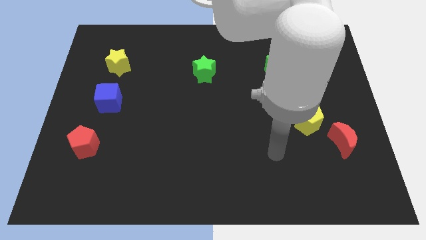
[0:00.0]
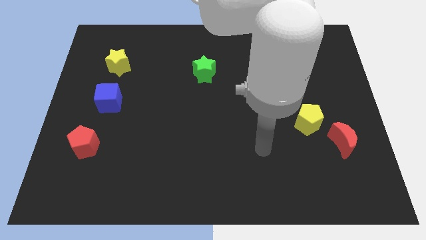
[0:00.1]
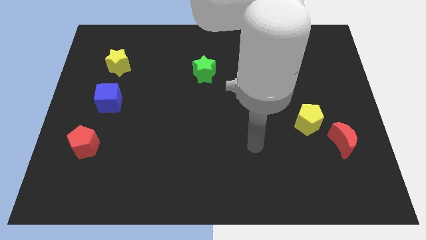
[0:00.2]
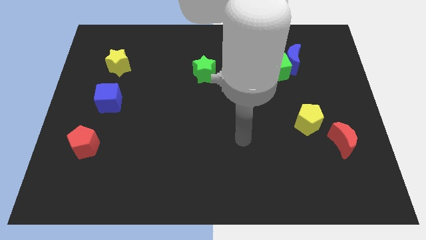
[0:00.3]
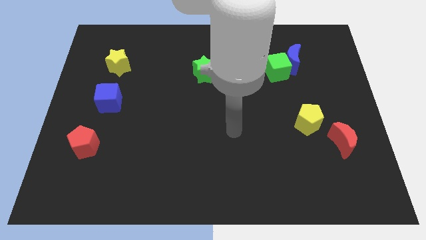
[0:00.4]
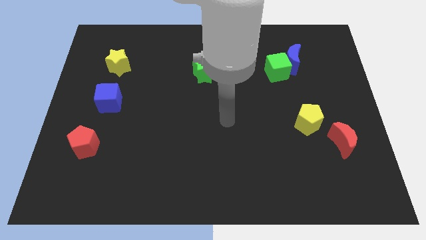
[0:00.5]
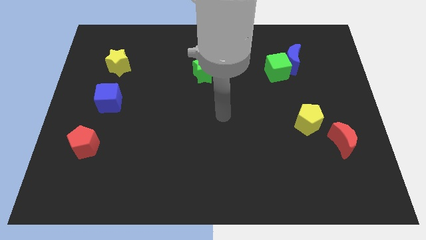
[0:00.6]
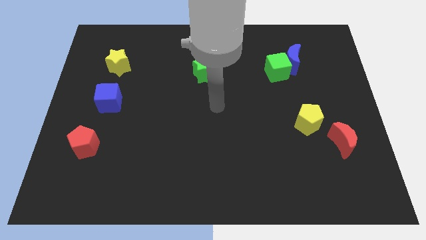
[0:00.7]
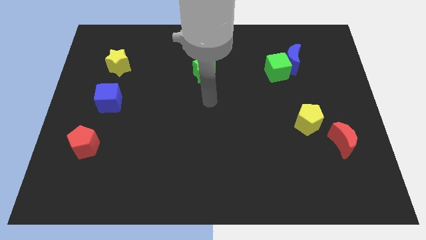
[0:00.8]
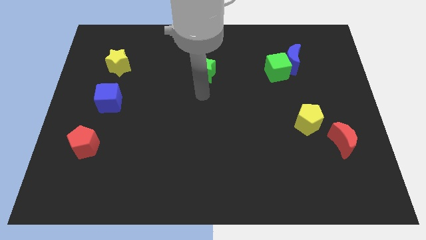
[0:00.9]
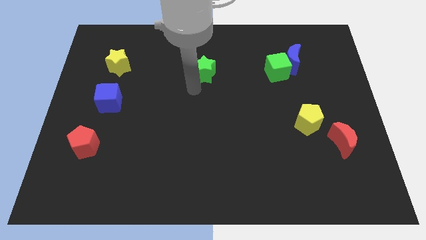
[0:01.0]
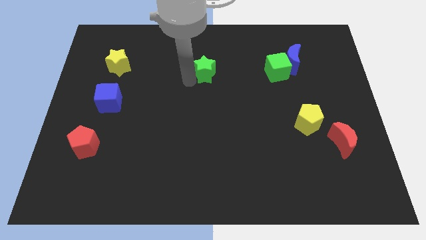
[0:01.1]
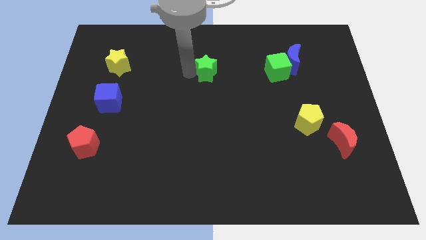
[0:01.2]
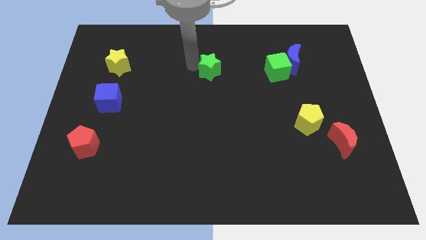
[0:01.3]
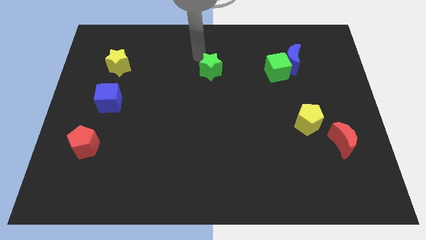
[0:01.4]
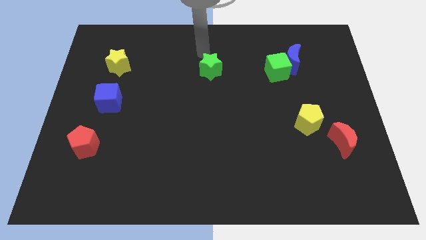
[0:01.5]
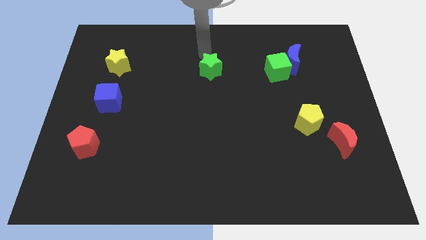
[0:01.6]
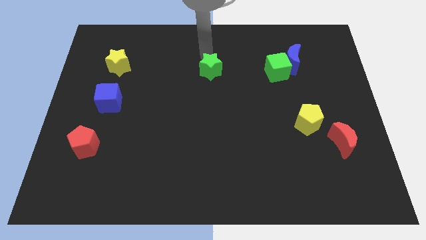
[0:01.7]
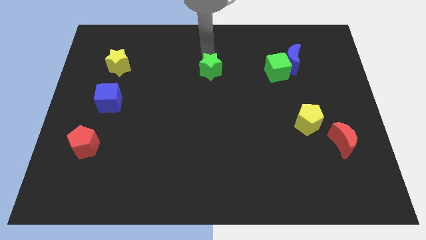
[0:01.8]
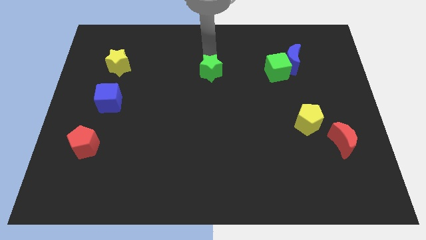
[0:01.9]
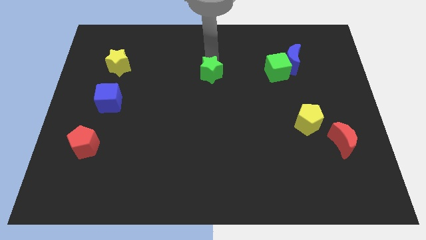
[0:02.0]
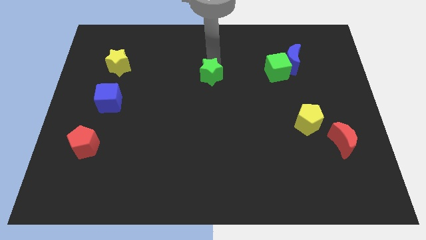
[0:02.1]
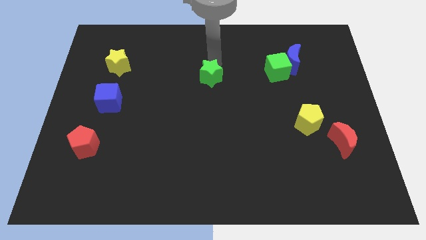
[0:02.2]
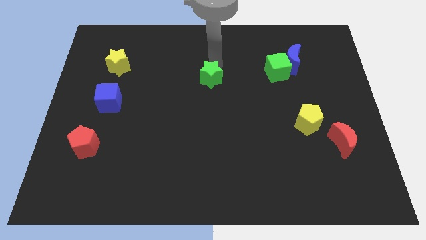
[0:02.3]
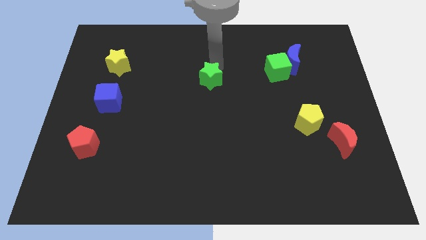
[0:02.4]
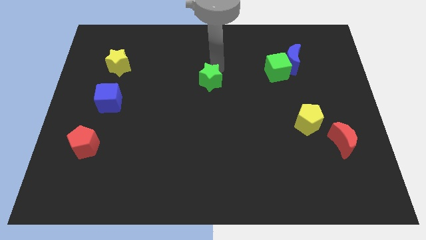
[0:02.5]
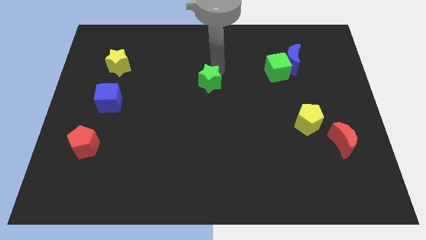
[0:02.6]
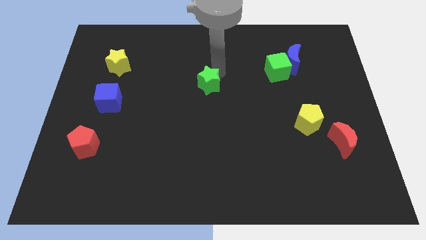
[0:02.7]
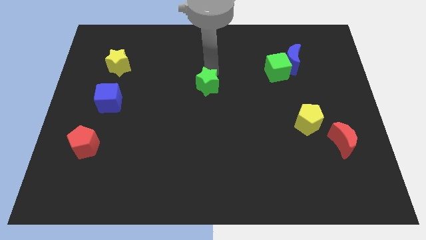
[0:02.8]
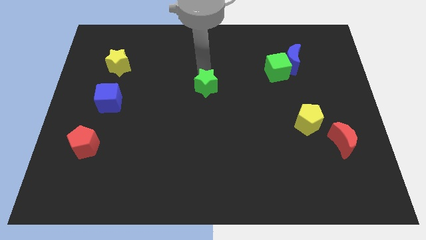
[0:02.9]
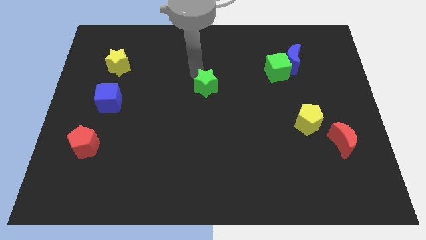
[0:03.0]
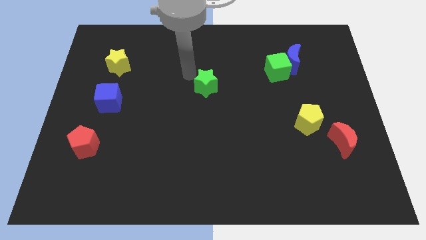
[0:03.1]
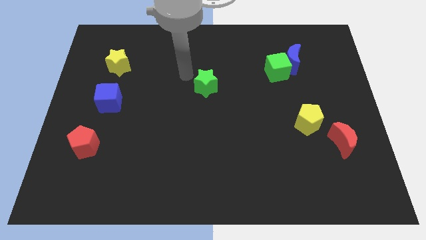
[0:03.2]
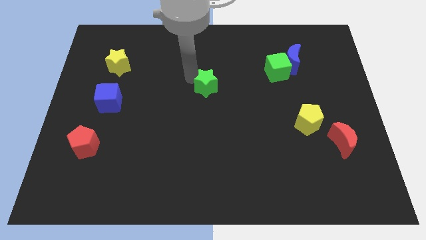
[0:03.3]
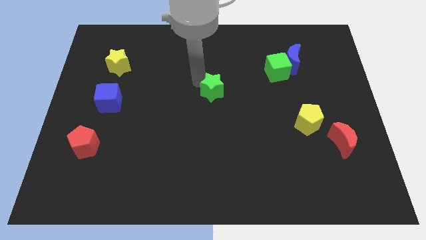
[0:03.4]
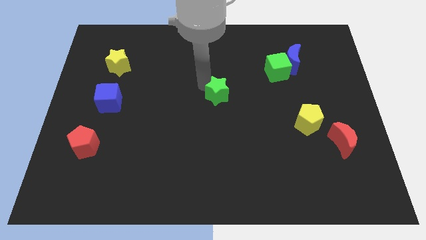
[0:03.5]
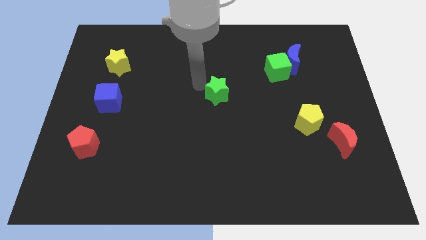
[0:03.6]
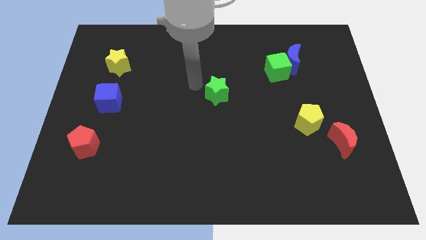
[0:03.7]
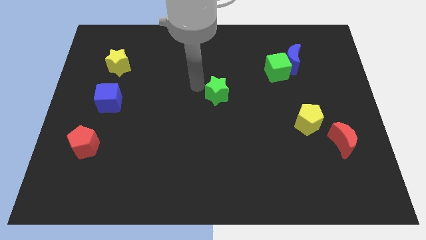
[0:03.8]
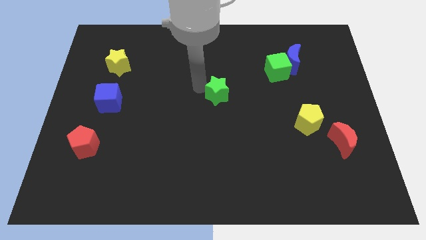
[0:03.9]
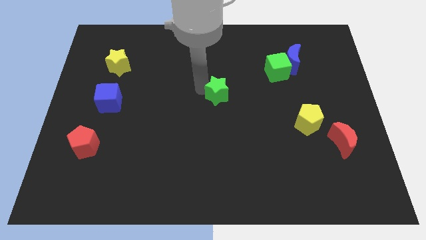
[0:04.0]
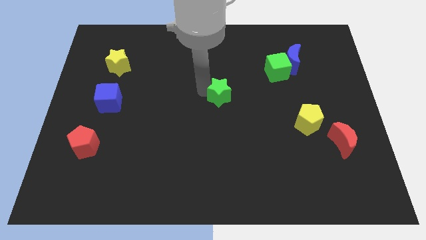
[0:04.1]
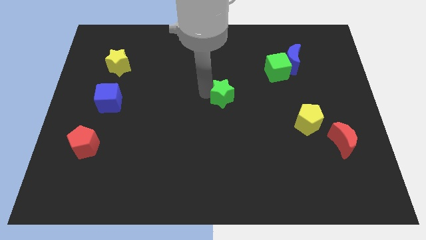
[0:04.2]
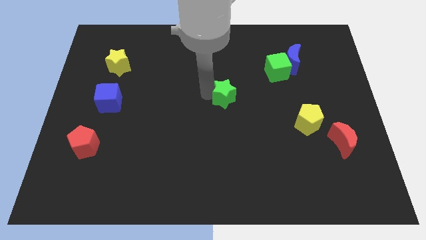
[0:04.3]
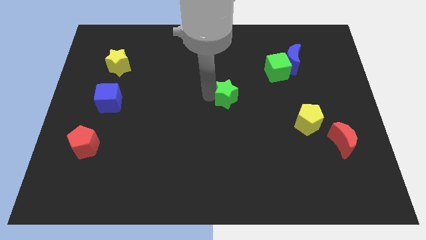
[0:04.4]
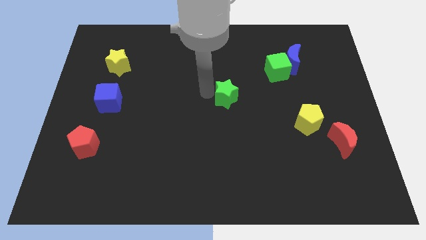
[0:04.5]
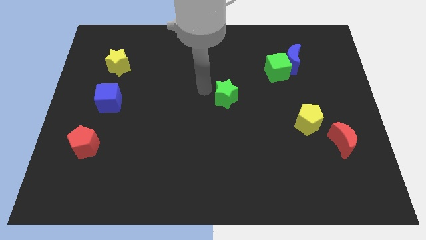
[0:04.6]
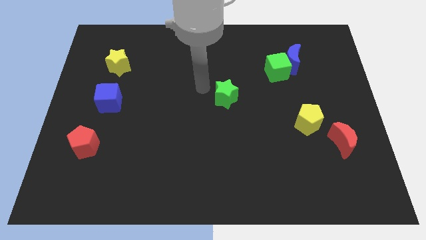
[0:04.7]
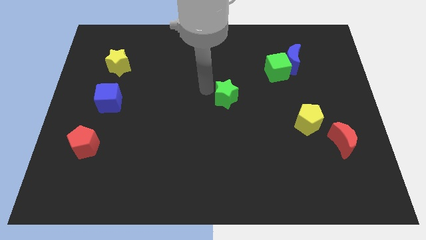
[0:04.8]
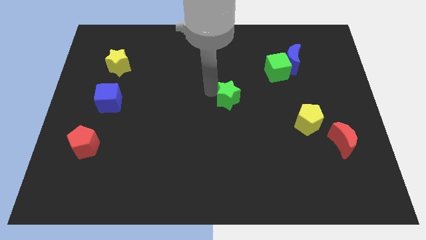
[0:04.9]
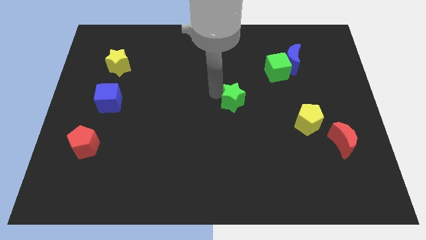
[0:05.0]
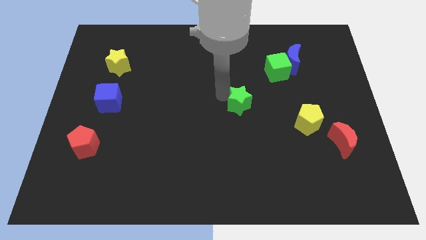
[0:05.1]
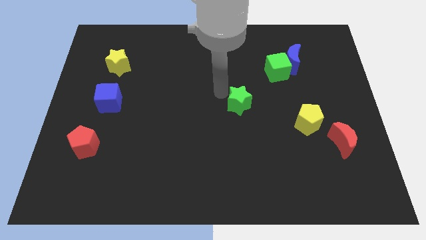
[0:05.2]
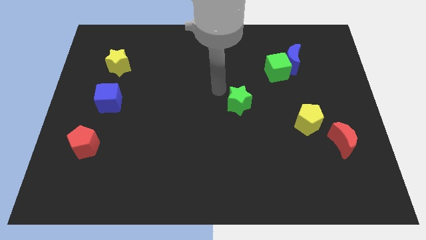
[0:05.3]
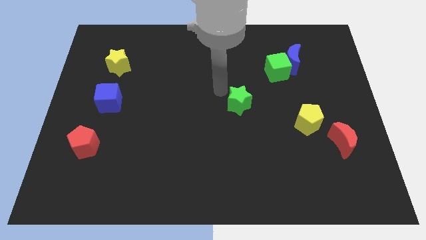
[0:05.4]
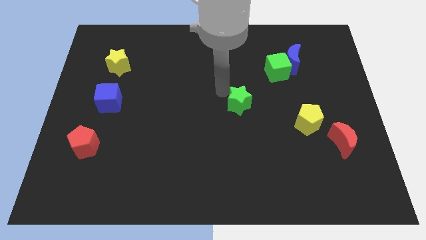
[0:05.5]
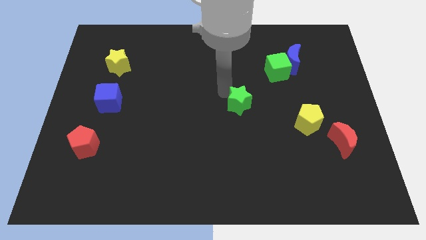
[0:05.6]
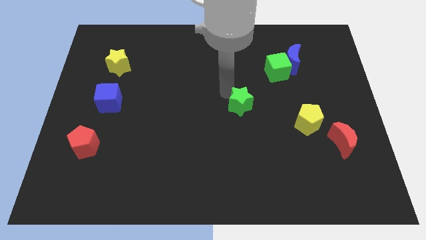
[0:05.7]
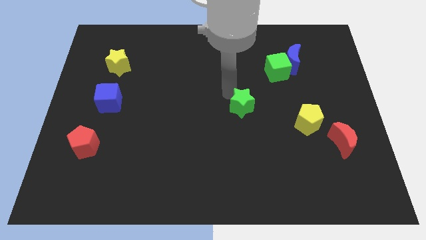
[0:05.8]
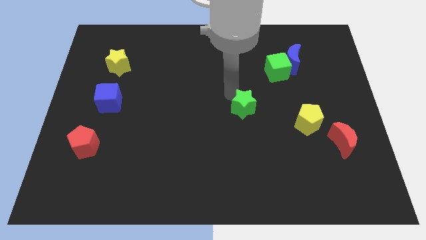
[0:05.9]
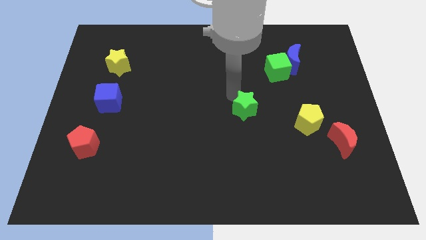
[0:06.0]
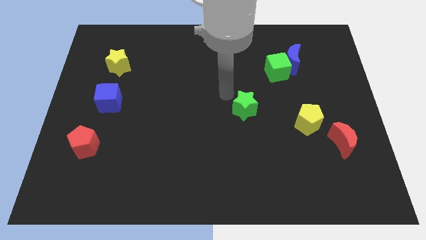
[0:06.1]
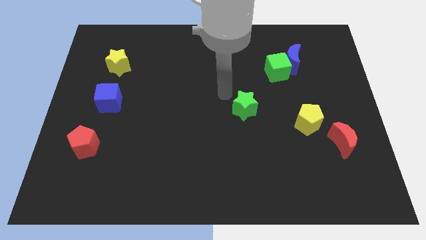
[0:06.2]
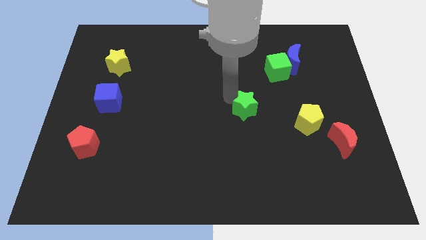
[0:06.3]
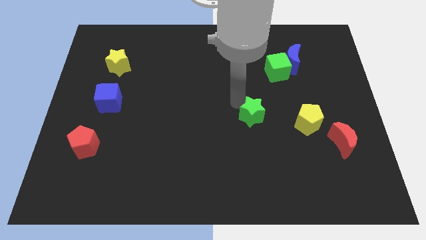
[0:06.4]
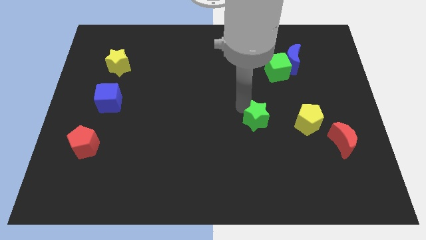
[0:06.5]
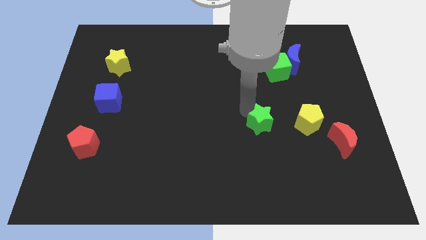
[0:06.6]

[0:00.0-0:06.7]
slide the green star downwards and to the right diagonally

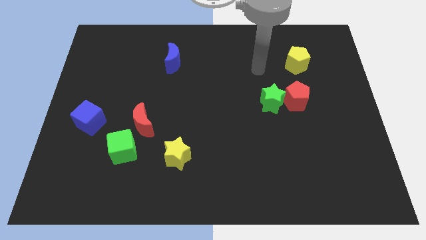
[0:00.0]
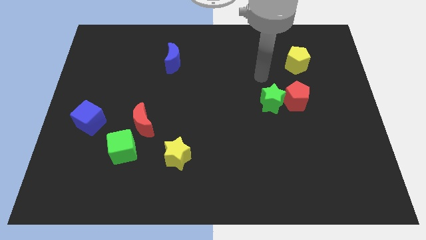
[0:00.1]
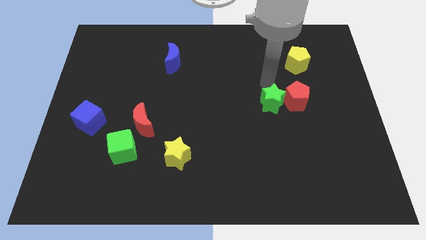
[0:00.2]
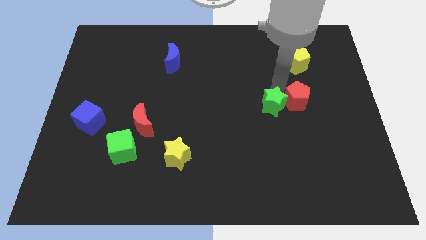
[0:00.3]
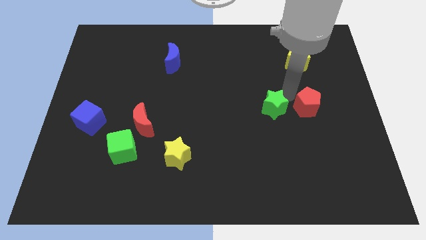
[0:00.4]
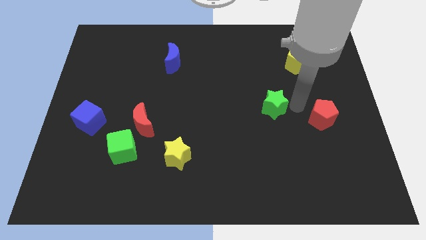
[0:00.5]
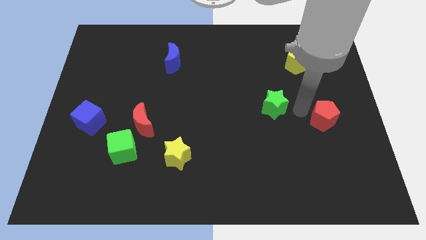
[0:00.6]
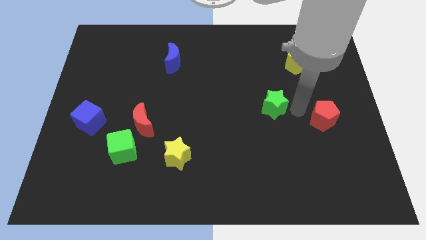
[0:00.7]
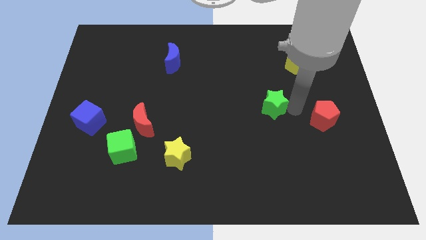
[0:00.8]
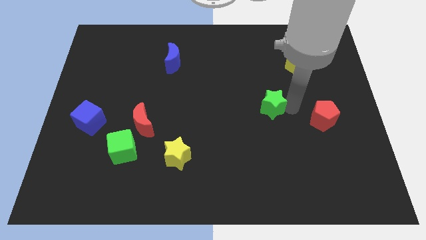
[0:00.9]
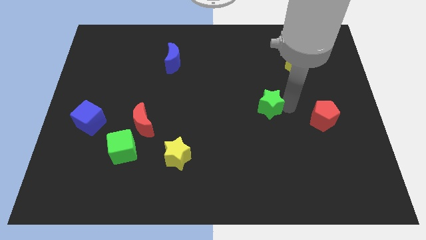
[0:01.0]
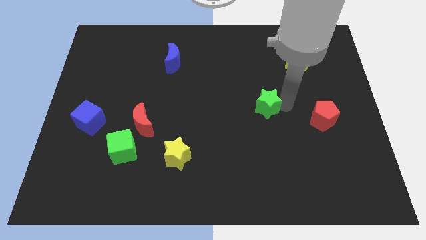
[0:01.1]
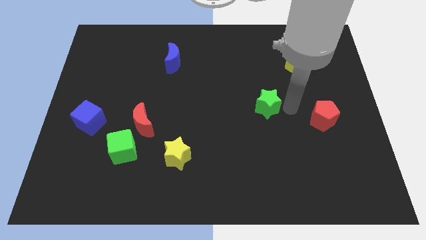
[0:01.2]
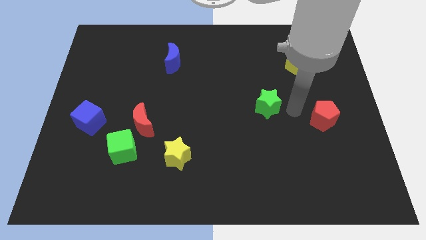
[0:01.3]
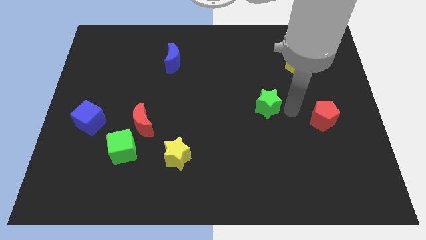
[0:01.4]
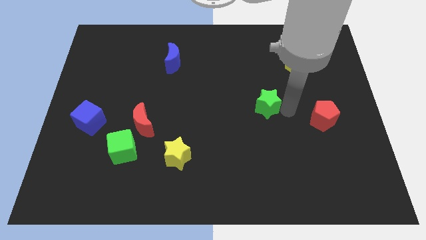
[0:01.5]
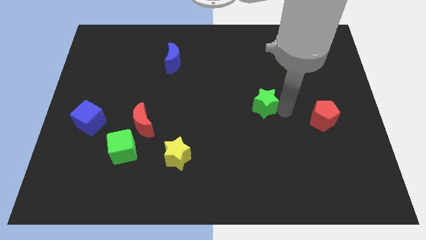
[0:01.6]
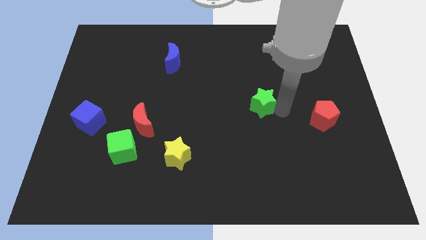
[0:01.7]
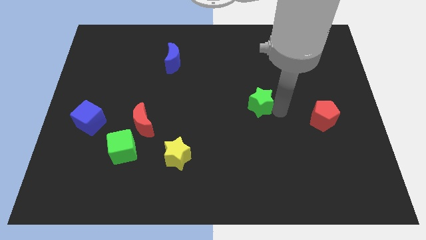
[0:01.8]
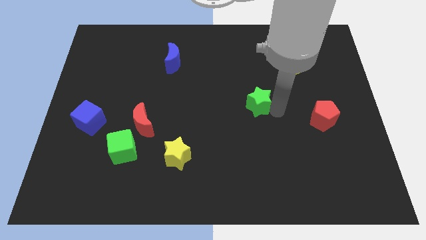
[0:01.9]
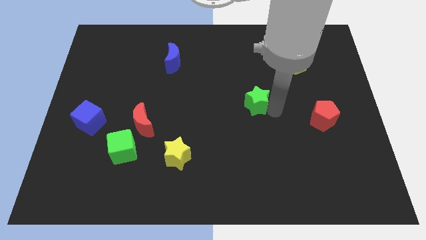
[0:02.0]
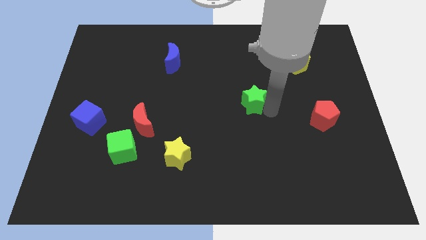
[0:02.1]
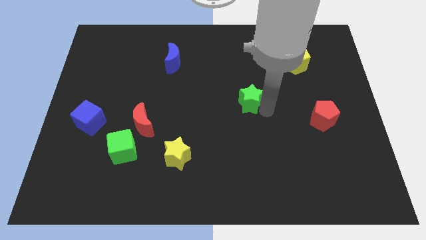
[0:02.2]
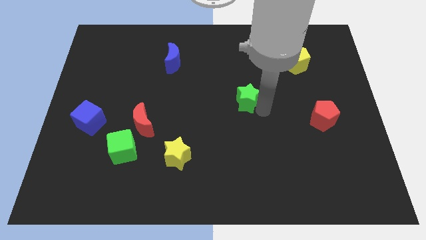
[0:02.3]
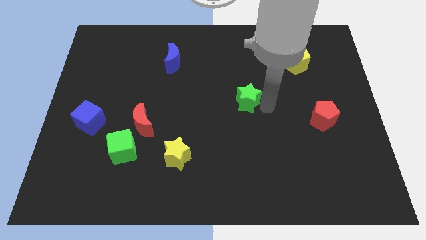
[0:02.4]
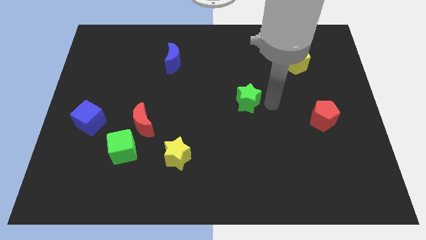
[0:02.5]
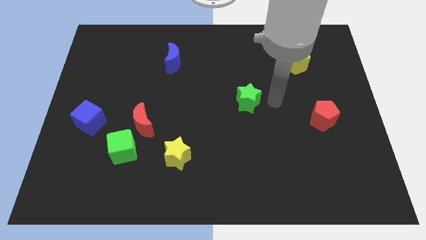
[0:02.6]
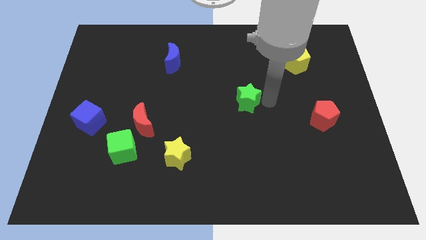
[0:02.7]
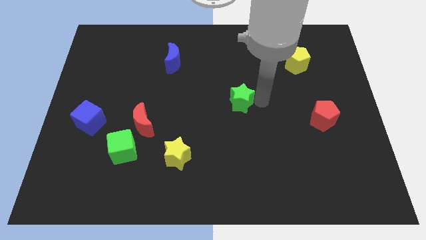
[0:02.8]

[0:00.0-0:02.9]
push the green star to the left a little bit
